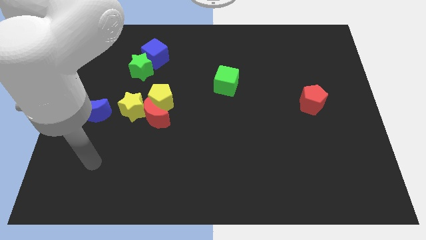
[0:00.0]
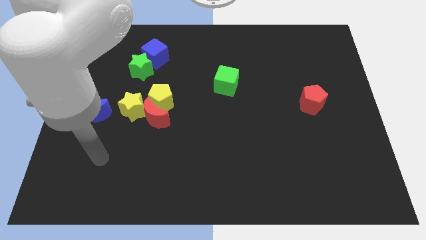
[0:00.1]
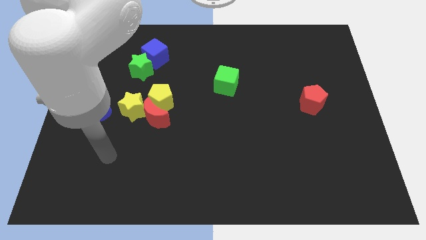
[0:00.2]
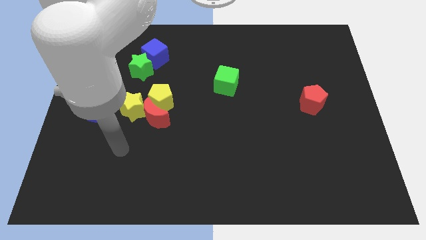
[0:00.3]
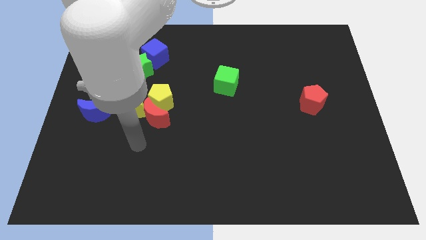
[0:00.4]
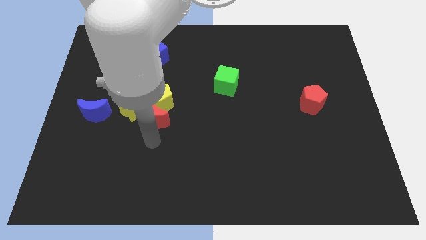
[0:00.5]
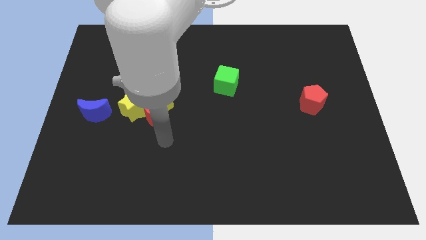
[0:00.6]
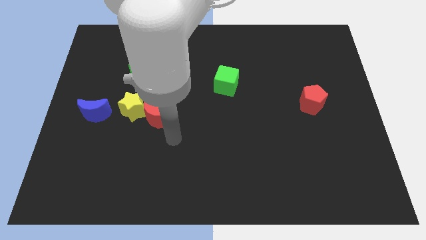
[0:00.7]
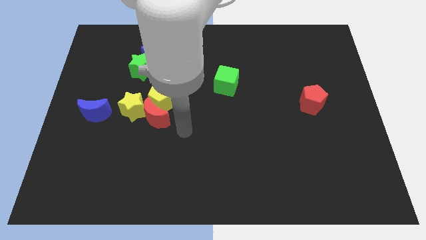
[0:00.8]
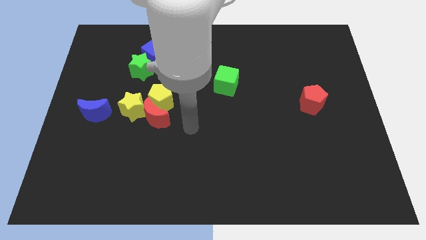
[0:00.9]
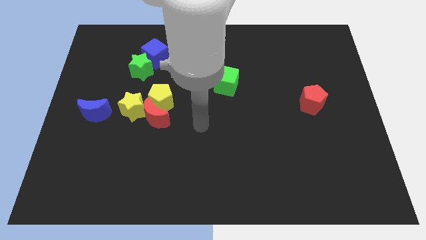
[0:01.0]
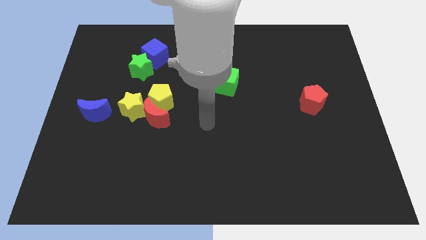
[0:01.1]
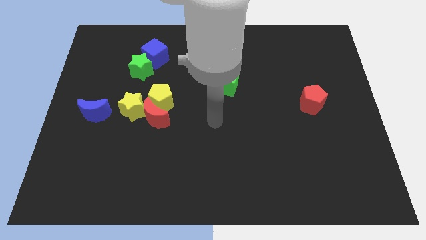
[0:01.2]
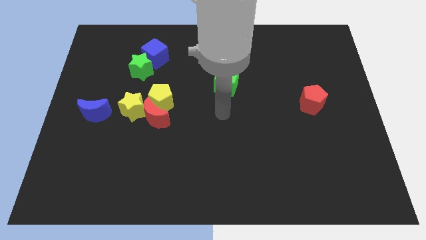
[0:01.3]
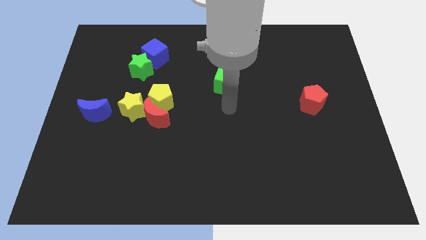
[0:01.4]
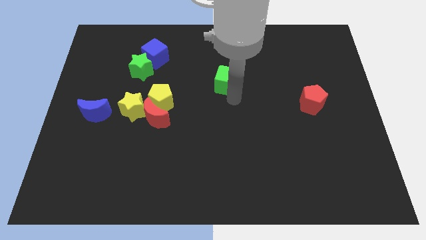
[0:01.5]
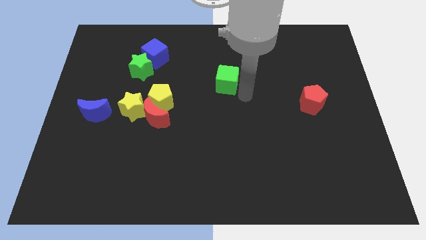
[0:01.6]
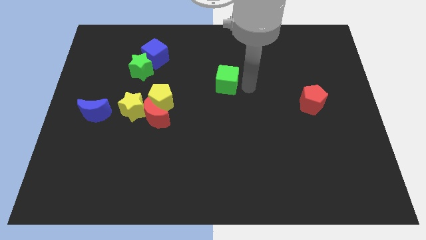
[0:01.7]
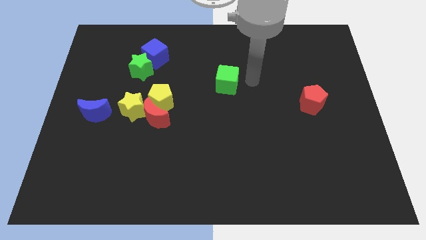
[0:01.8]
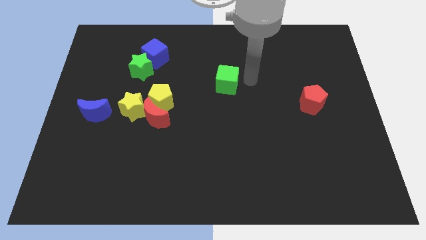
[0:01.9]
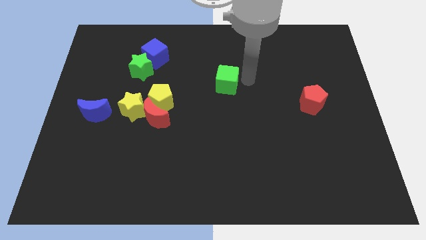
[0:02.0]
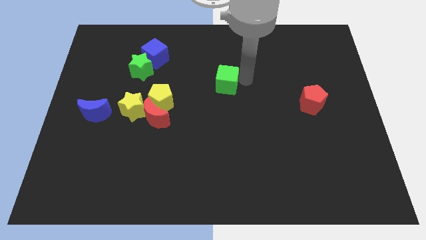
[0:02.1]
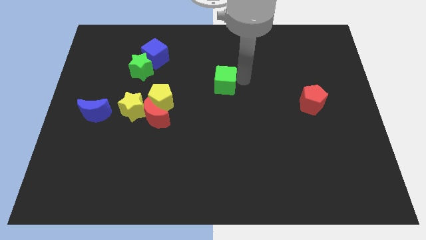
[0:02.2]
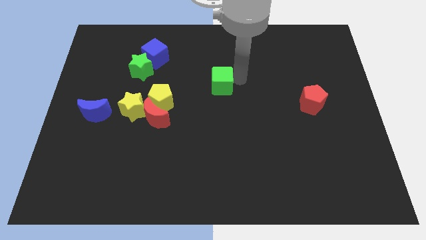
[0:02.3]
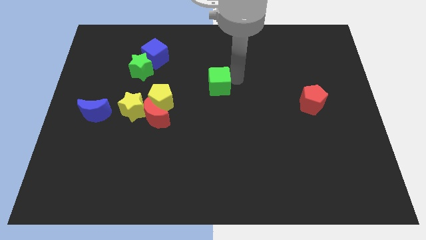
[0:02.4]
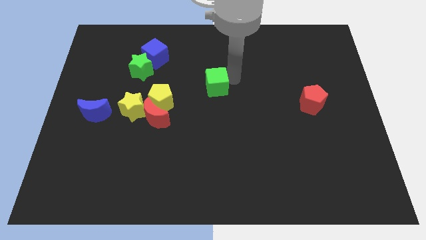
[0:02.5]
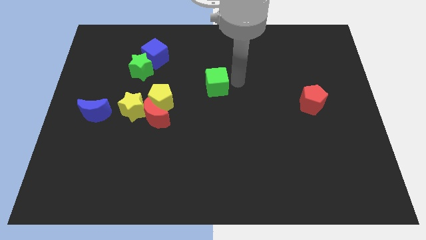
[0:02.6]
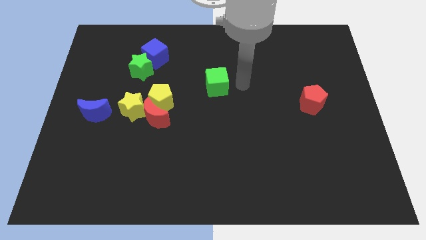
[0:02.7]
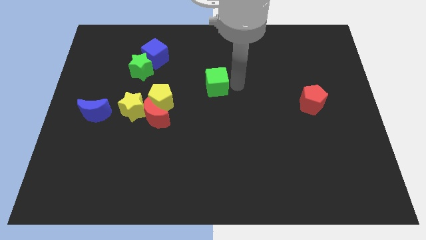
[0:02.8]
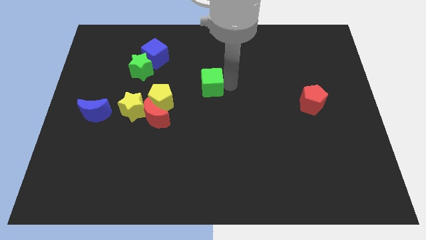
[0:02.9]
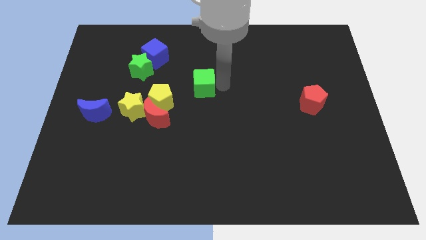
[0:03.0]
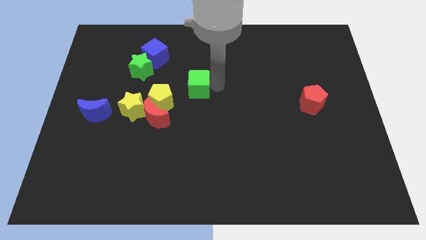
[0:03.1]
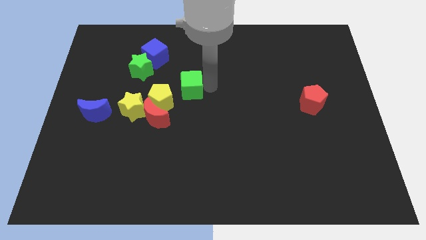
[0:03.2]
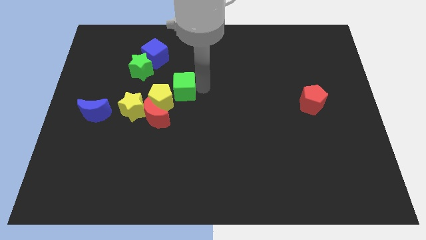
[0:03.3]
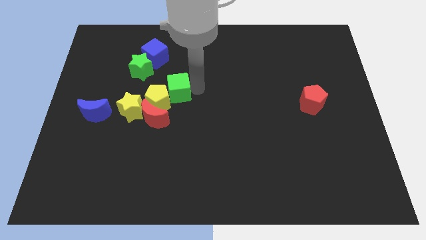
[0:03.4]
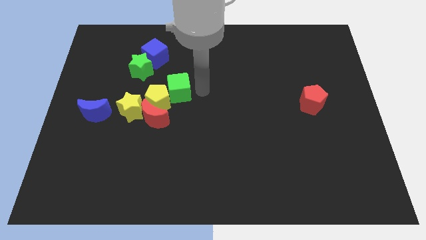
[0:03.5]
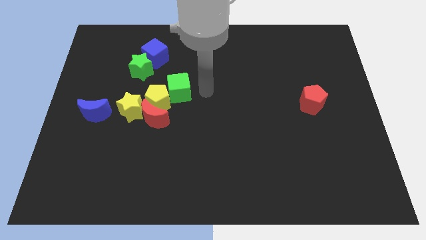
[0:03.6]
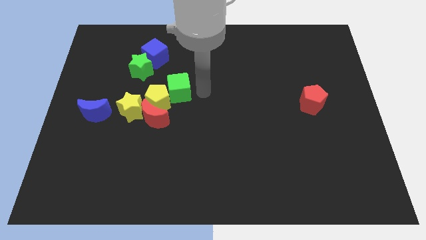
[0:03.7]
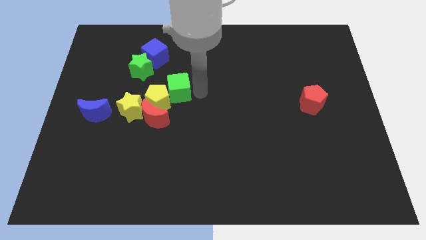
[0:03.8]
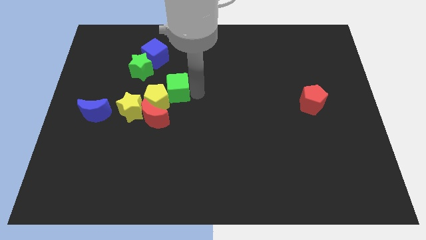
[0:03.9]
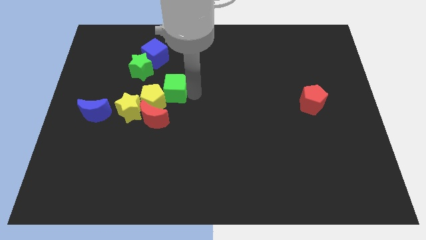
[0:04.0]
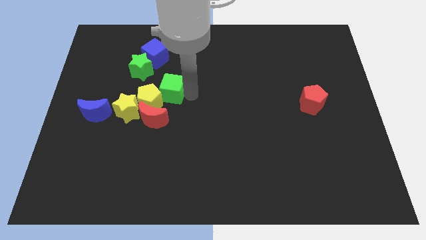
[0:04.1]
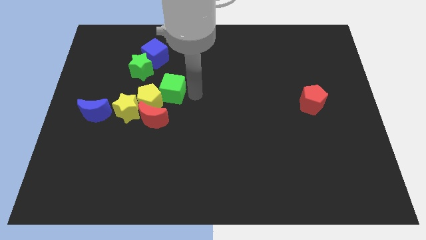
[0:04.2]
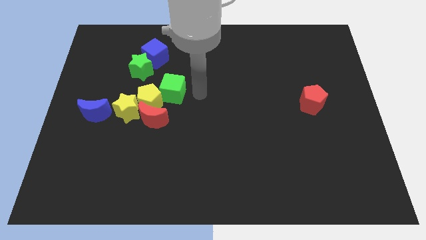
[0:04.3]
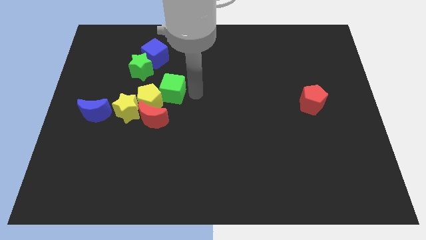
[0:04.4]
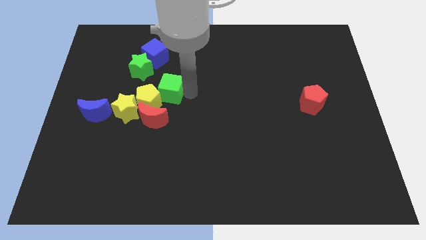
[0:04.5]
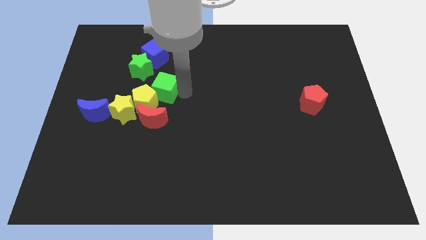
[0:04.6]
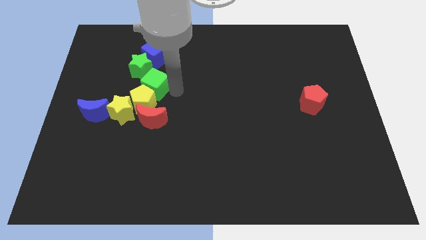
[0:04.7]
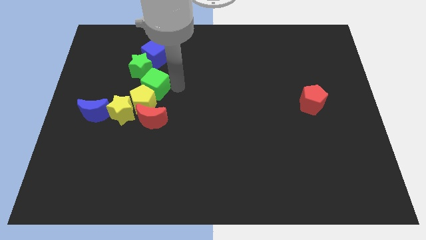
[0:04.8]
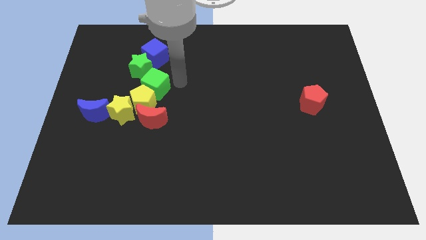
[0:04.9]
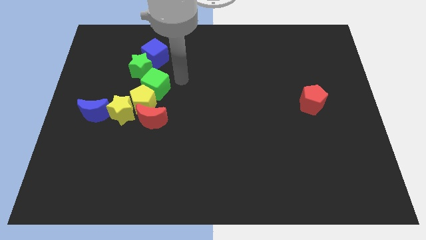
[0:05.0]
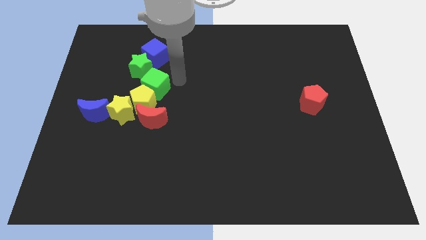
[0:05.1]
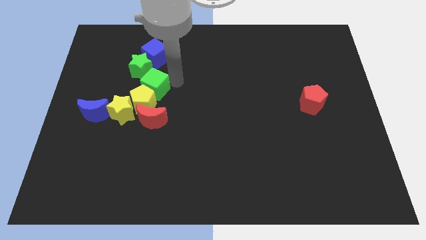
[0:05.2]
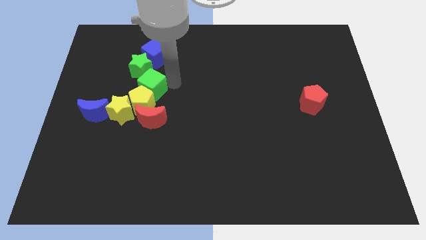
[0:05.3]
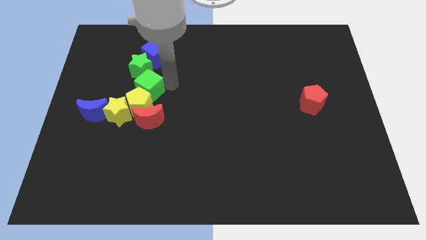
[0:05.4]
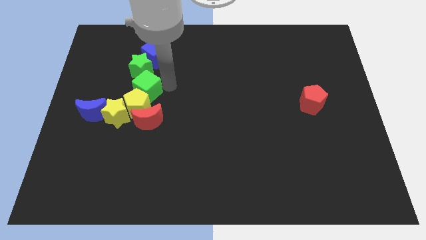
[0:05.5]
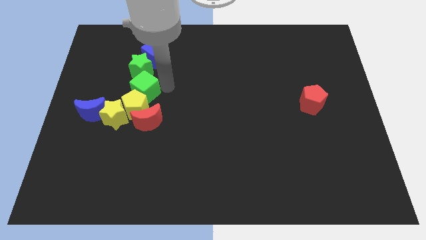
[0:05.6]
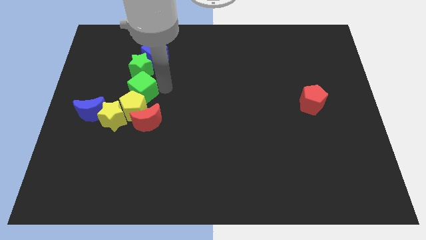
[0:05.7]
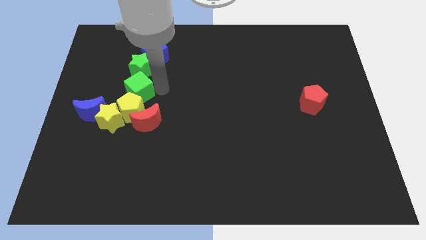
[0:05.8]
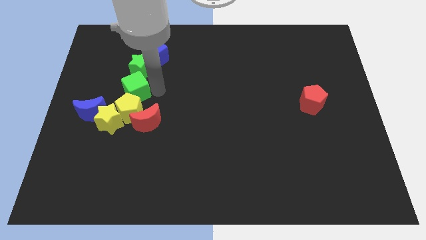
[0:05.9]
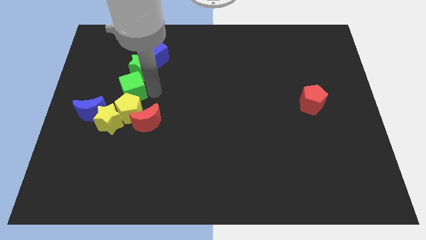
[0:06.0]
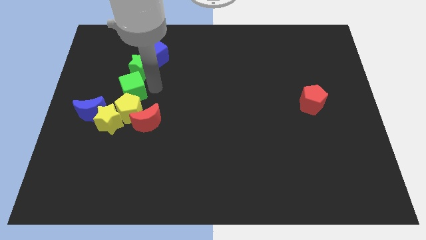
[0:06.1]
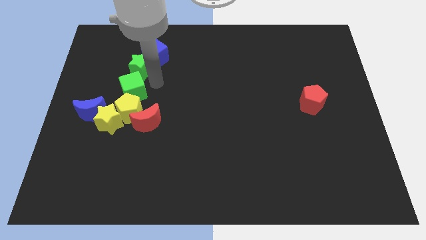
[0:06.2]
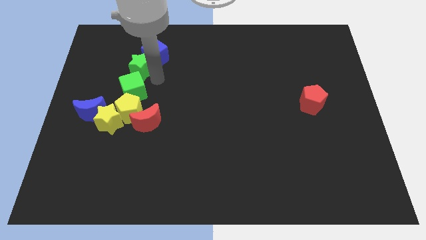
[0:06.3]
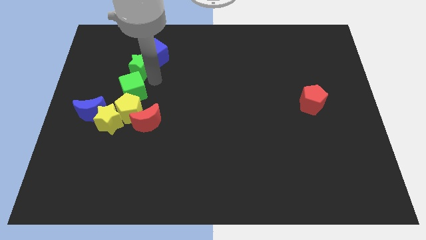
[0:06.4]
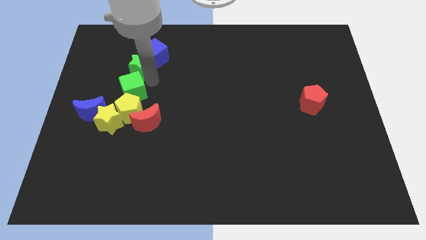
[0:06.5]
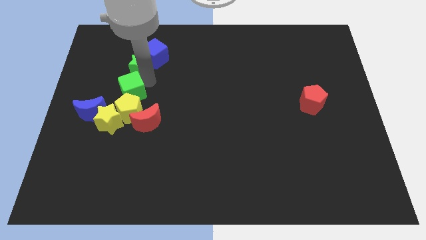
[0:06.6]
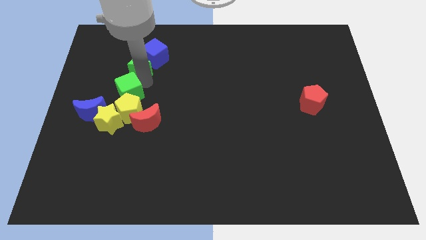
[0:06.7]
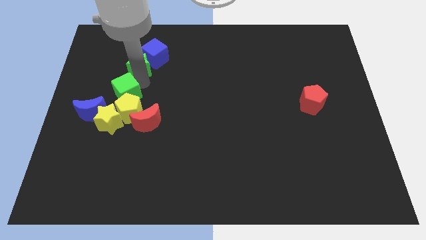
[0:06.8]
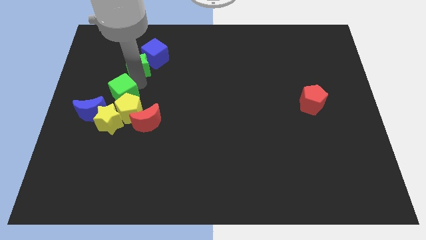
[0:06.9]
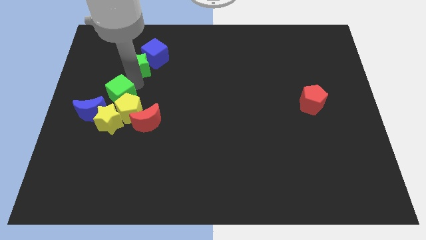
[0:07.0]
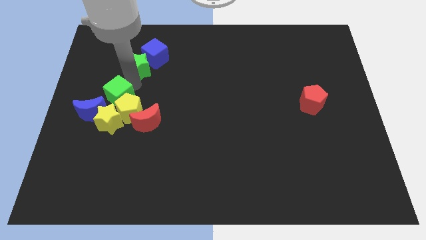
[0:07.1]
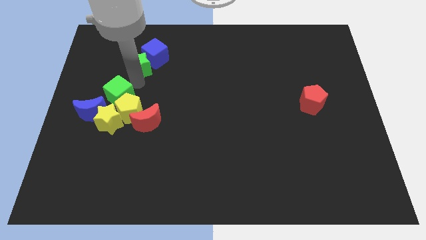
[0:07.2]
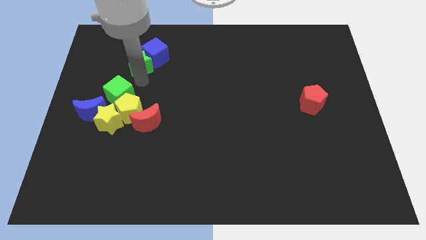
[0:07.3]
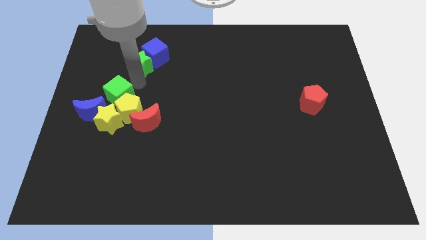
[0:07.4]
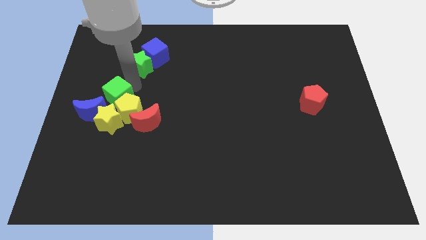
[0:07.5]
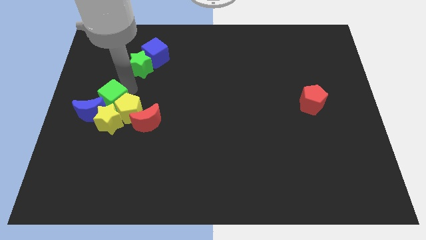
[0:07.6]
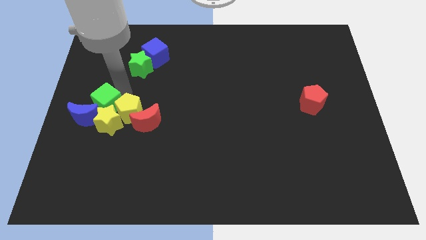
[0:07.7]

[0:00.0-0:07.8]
slide the green cube close to the blue moon

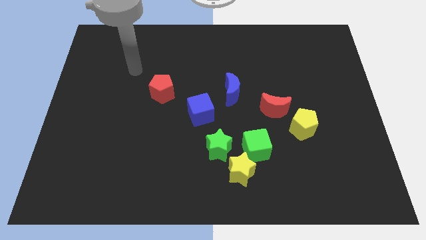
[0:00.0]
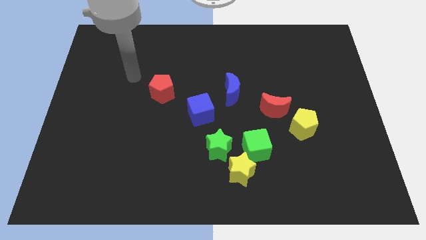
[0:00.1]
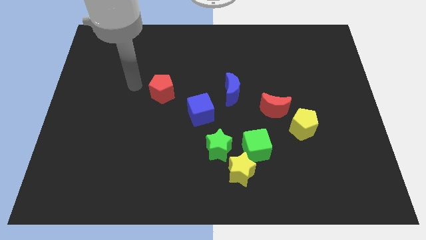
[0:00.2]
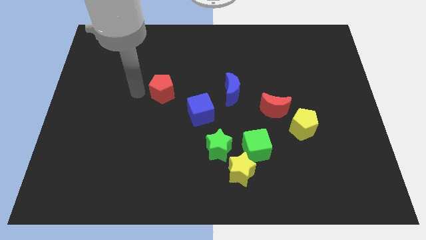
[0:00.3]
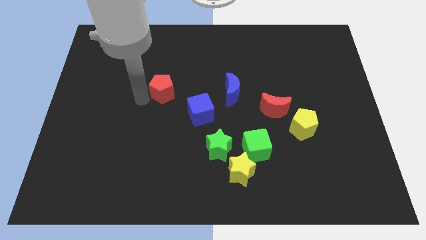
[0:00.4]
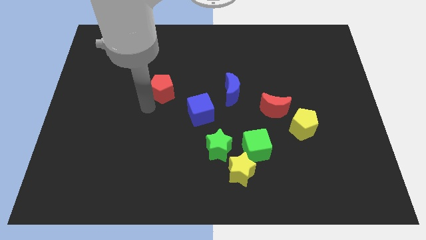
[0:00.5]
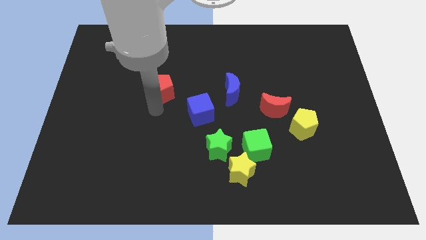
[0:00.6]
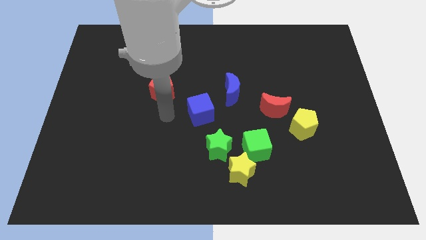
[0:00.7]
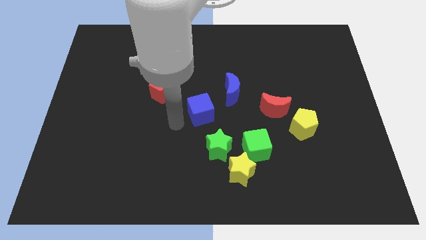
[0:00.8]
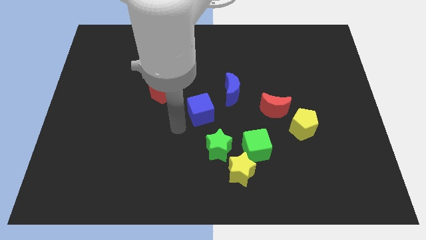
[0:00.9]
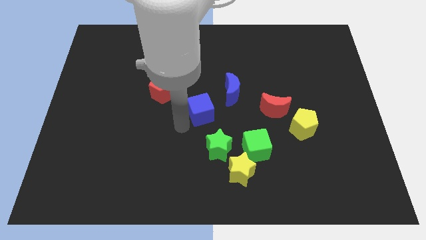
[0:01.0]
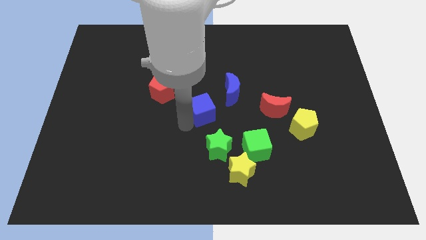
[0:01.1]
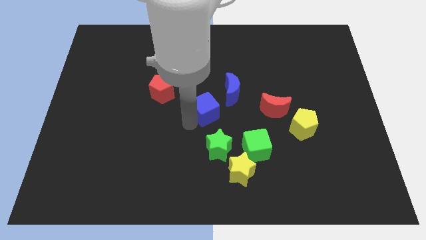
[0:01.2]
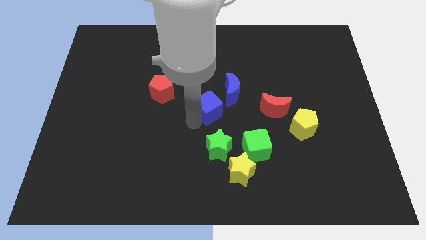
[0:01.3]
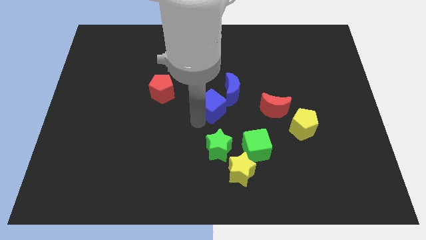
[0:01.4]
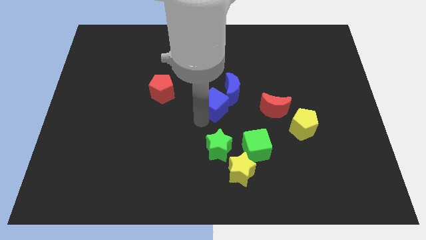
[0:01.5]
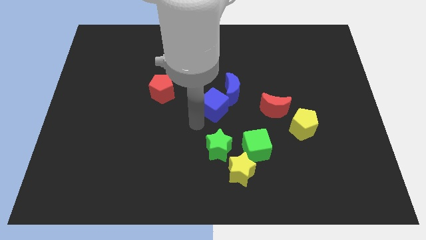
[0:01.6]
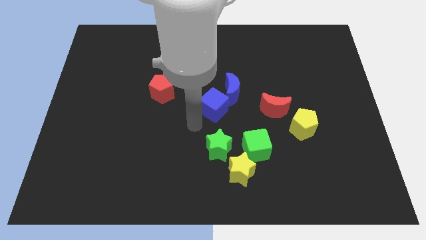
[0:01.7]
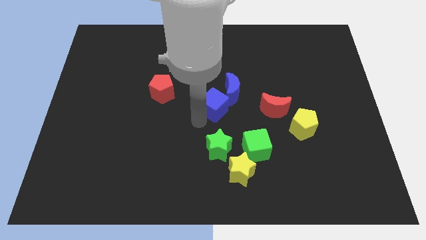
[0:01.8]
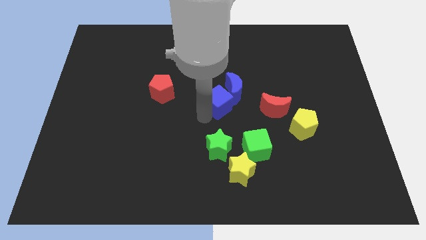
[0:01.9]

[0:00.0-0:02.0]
push the blue cube next to the blue moon
